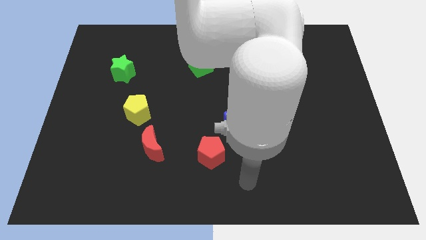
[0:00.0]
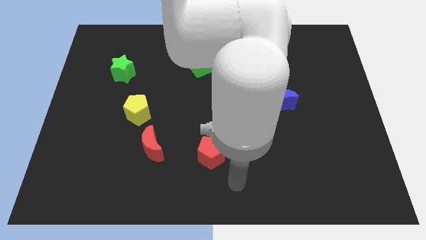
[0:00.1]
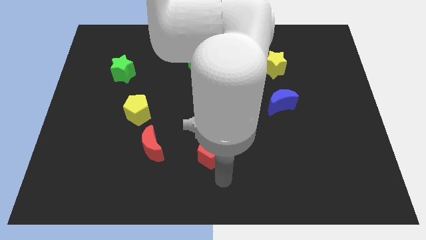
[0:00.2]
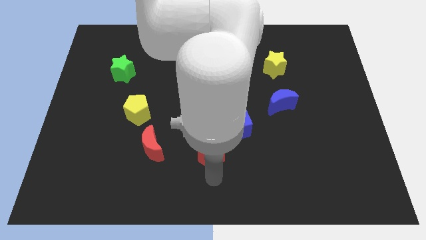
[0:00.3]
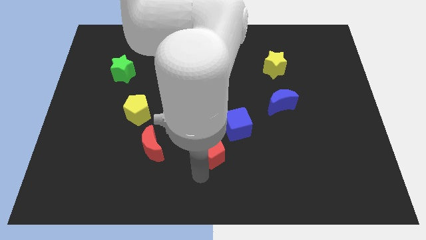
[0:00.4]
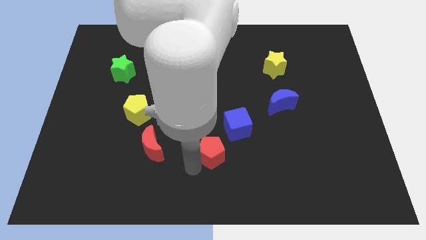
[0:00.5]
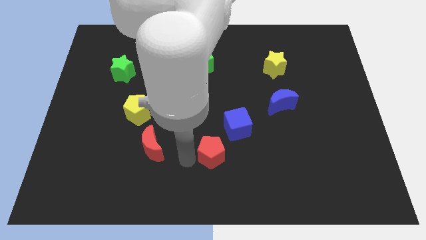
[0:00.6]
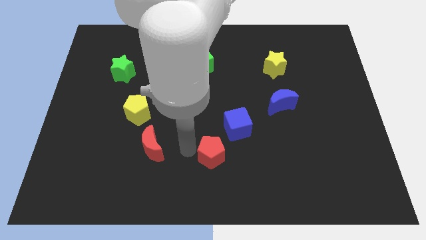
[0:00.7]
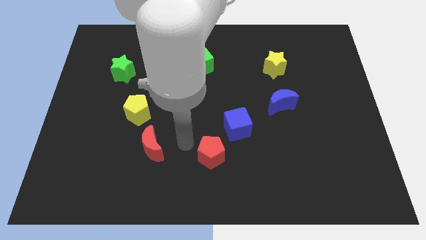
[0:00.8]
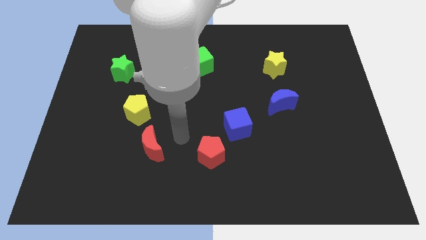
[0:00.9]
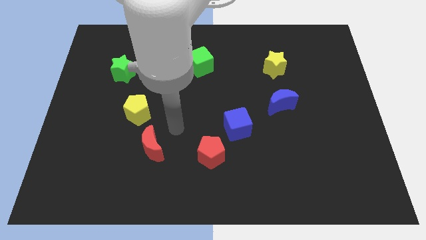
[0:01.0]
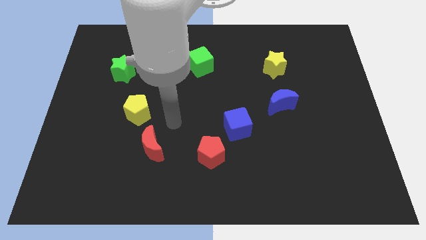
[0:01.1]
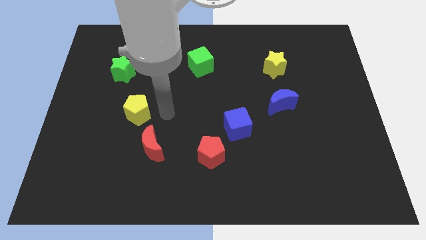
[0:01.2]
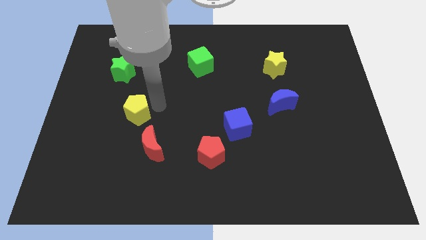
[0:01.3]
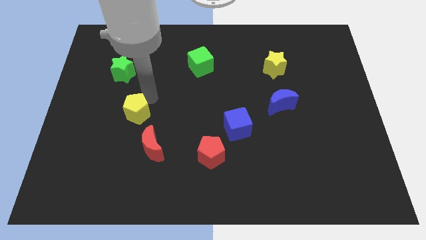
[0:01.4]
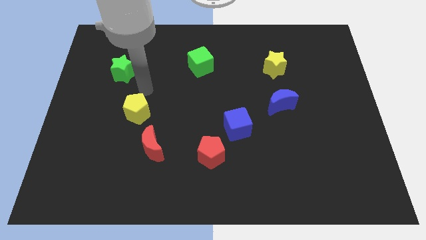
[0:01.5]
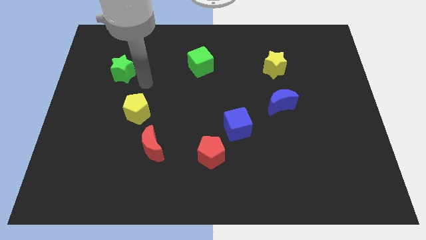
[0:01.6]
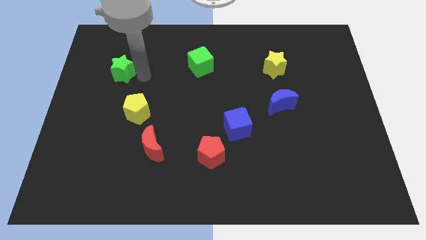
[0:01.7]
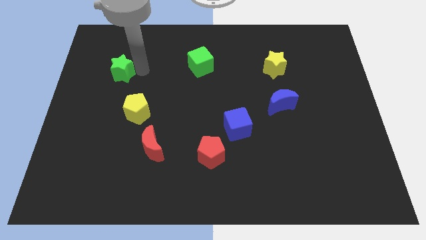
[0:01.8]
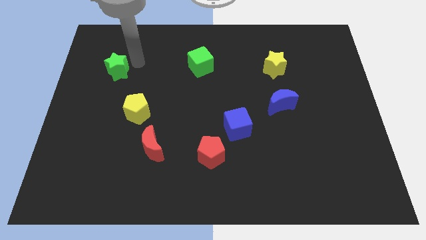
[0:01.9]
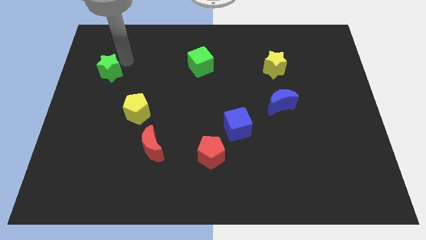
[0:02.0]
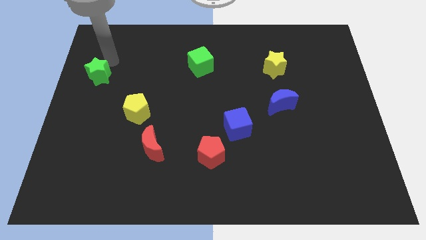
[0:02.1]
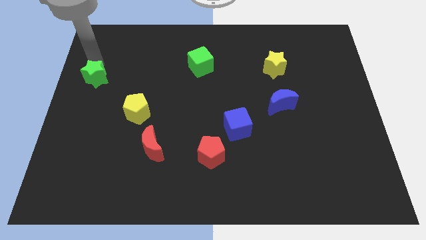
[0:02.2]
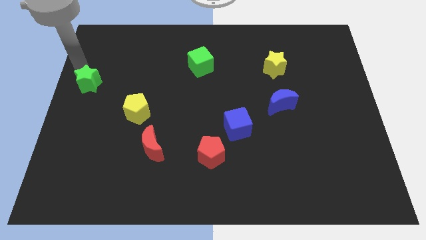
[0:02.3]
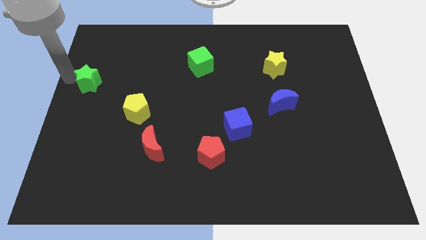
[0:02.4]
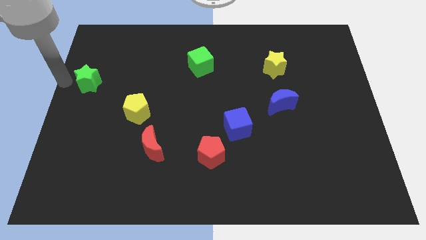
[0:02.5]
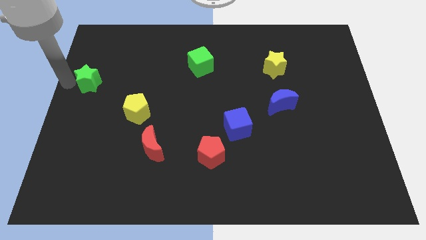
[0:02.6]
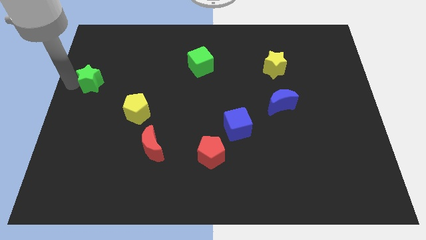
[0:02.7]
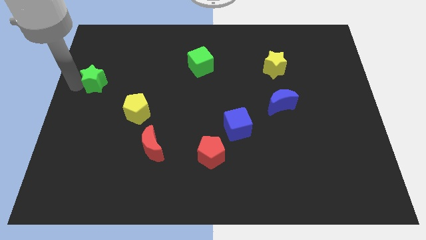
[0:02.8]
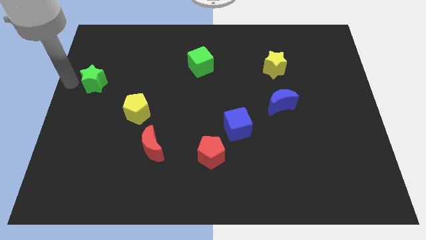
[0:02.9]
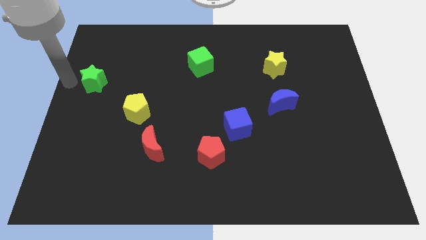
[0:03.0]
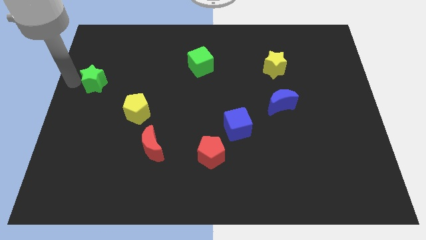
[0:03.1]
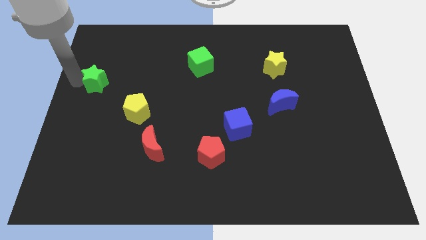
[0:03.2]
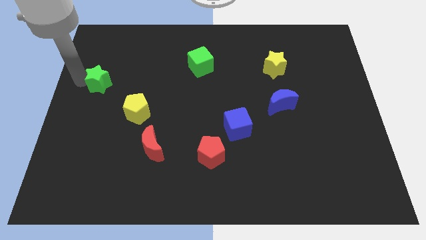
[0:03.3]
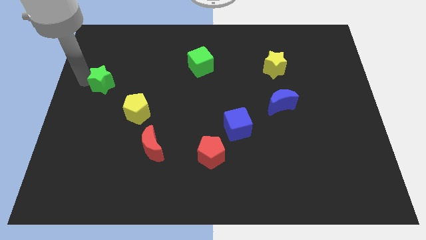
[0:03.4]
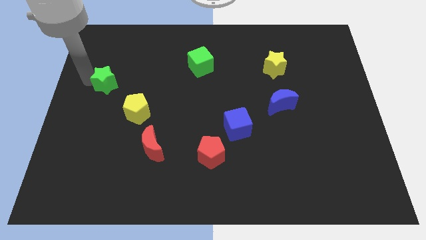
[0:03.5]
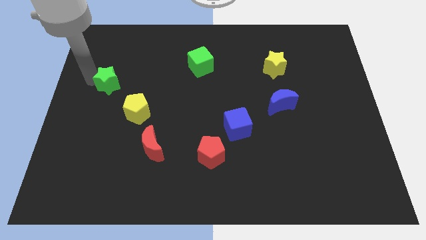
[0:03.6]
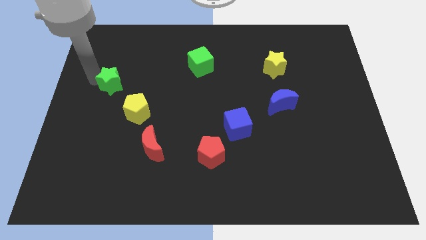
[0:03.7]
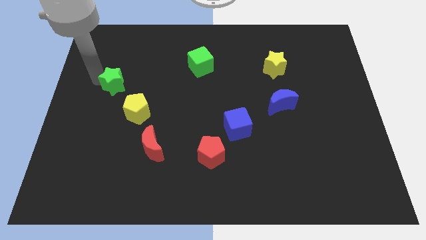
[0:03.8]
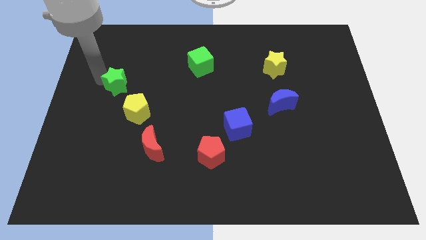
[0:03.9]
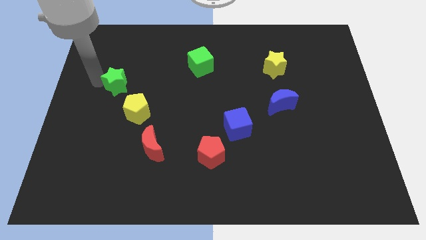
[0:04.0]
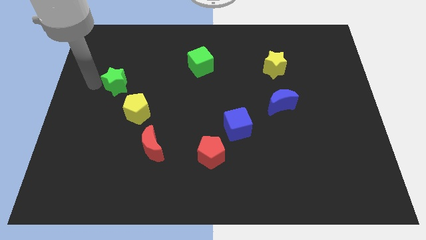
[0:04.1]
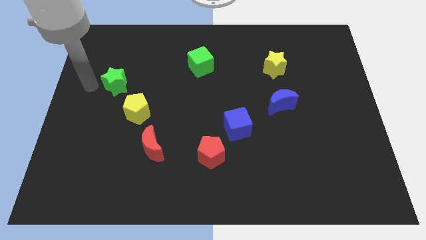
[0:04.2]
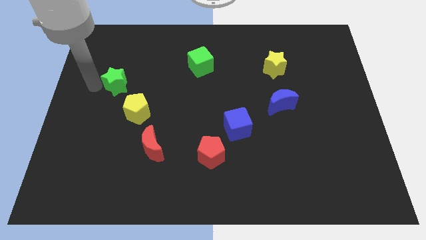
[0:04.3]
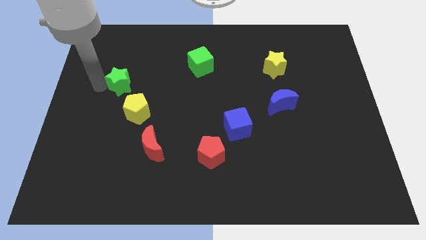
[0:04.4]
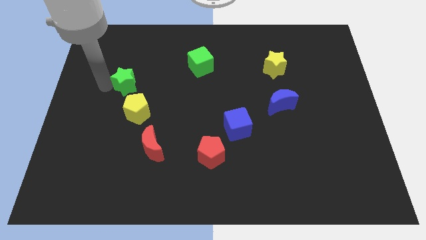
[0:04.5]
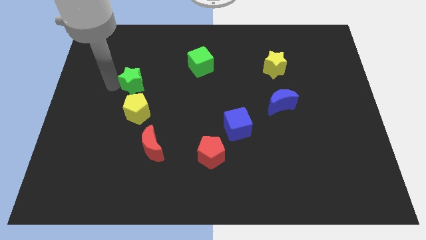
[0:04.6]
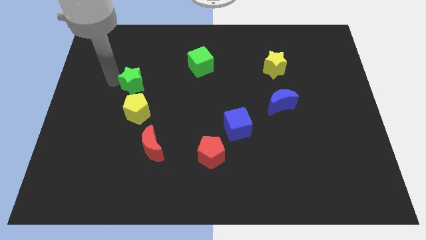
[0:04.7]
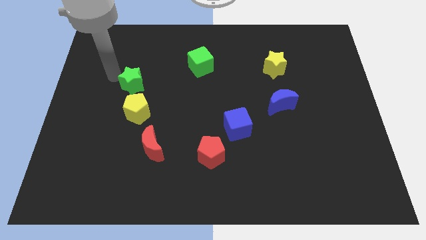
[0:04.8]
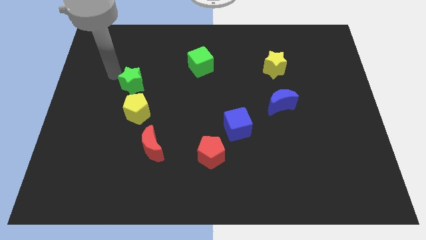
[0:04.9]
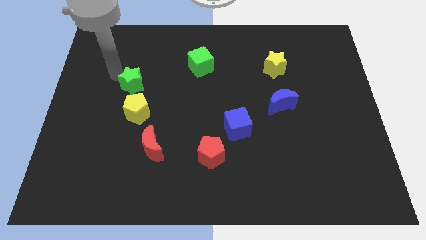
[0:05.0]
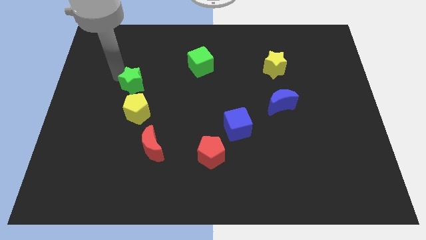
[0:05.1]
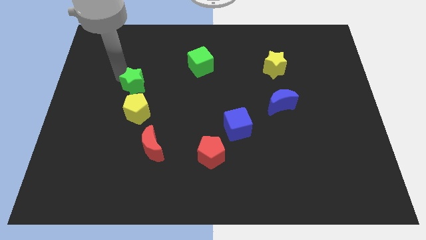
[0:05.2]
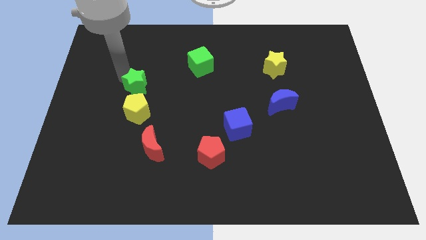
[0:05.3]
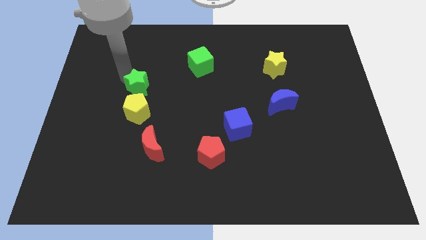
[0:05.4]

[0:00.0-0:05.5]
slide the green star downwards and to the right slightly

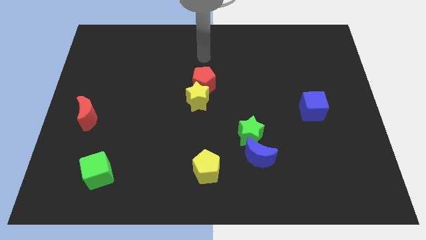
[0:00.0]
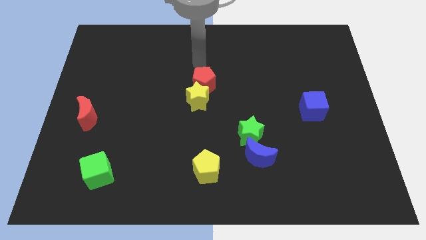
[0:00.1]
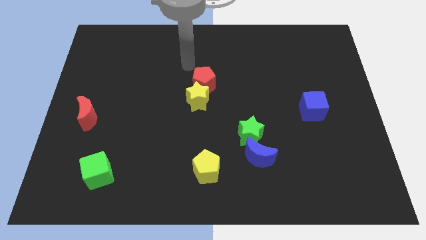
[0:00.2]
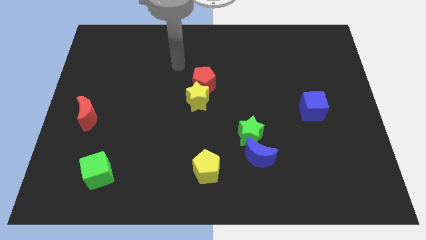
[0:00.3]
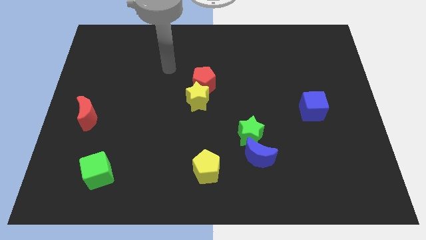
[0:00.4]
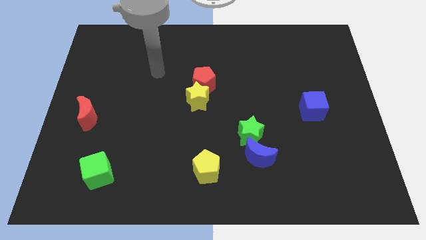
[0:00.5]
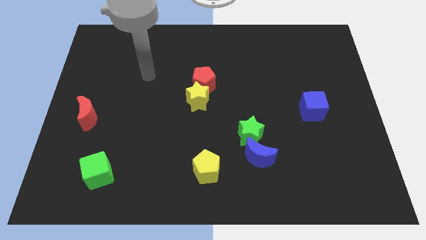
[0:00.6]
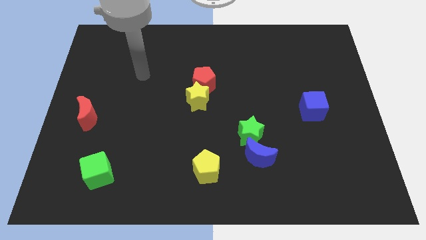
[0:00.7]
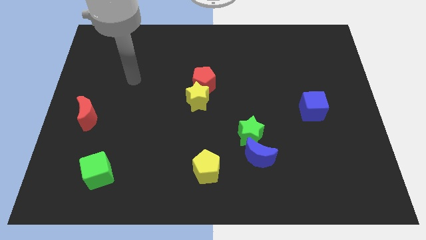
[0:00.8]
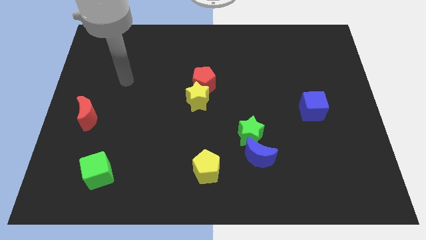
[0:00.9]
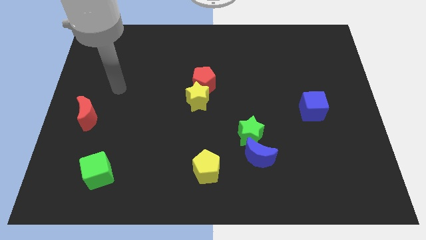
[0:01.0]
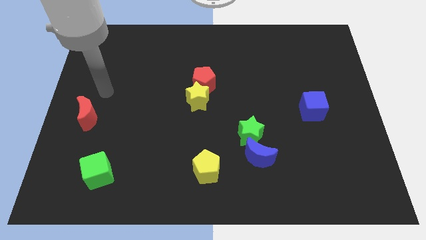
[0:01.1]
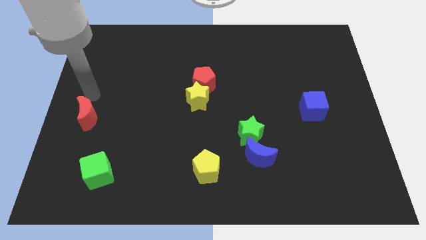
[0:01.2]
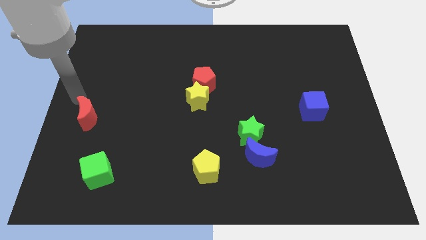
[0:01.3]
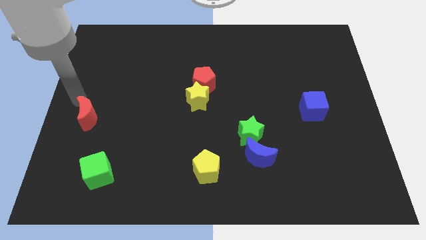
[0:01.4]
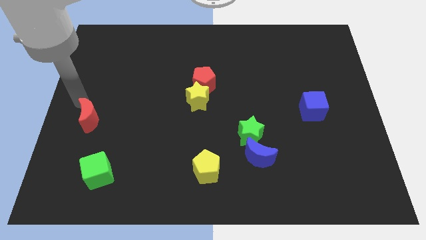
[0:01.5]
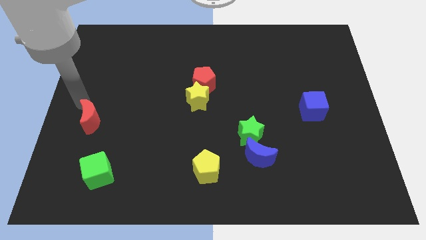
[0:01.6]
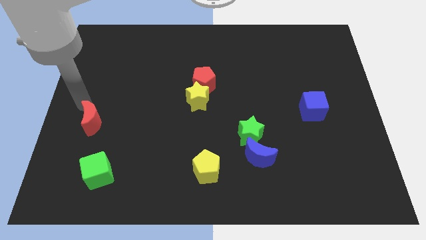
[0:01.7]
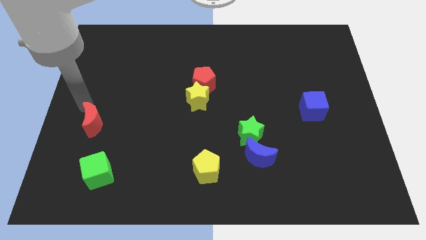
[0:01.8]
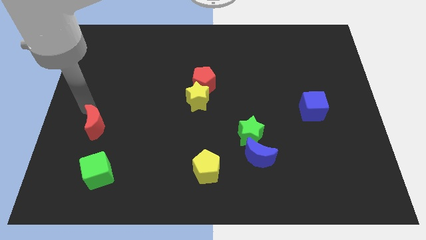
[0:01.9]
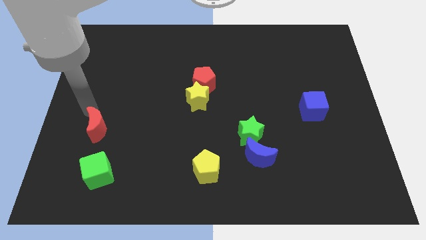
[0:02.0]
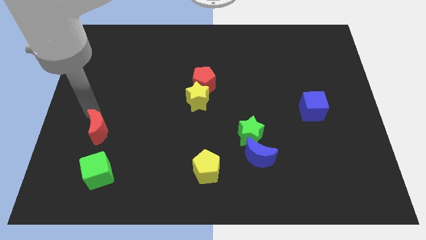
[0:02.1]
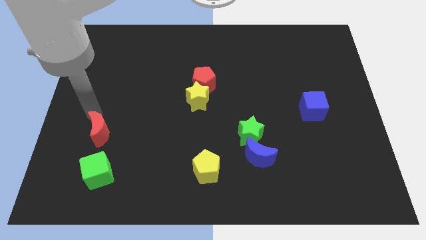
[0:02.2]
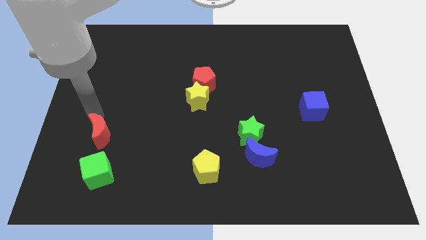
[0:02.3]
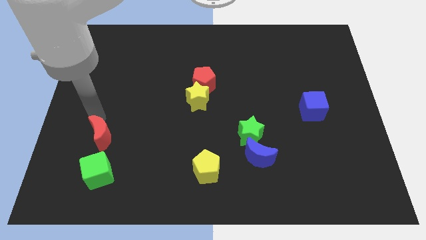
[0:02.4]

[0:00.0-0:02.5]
slightly slide the red moon down and right diagonally

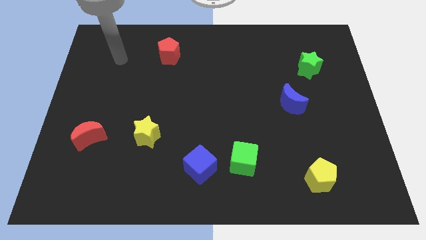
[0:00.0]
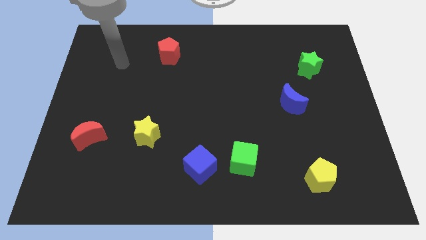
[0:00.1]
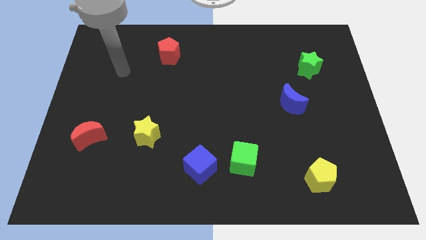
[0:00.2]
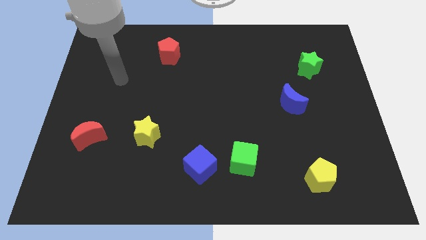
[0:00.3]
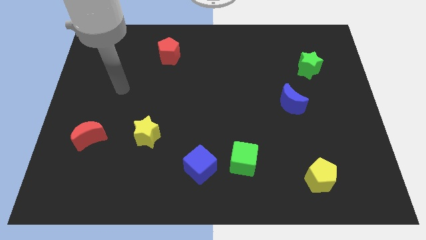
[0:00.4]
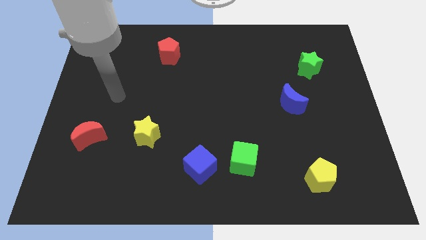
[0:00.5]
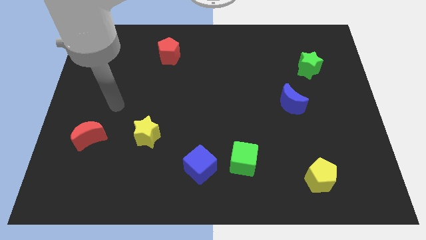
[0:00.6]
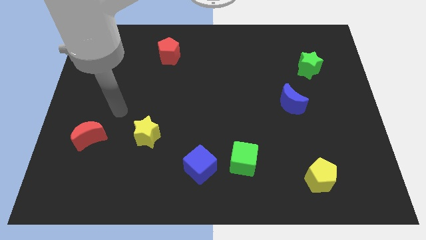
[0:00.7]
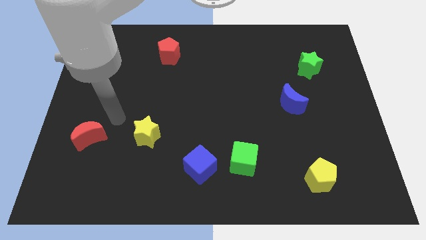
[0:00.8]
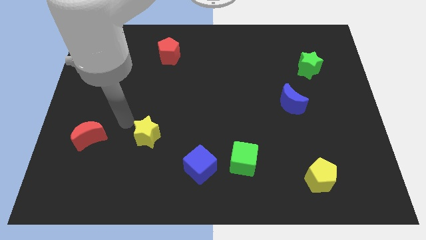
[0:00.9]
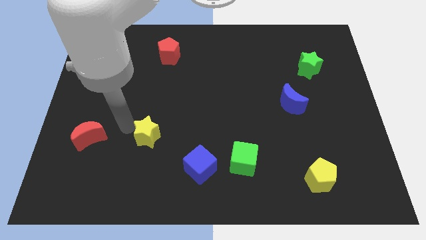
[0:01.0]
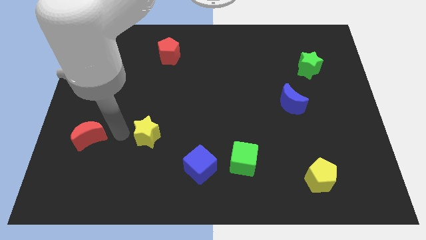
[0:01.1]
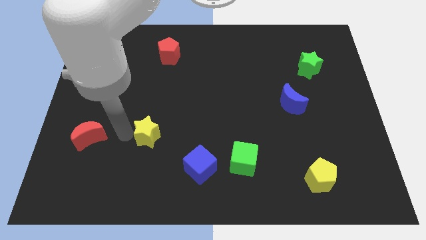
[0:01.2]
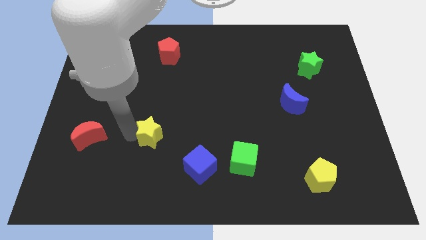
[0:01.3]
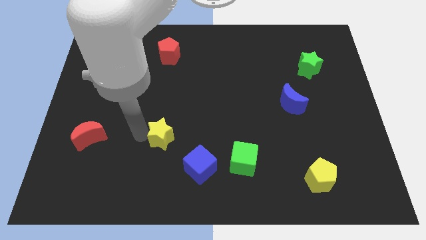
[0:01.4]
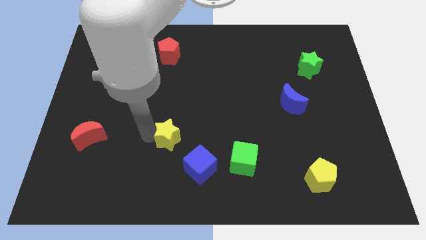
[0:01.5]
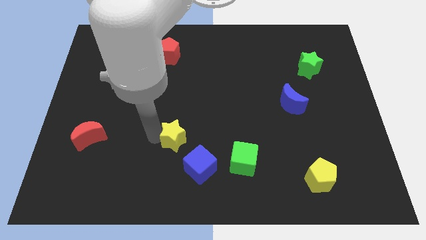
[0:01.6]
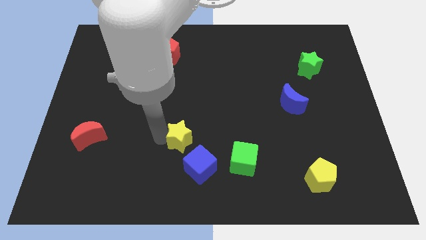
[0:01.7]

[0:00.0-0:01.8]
push the yellow star right a little
